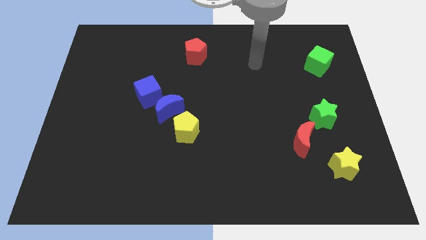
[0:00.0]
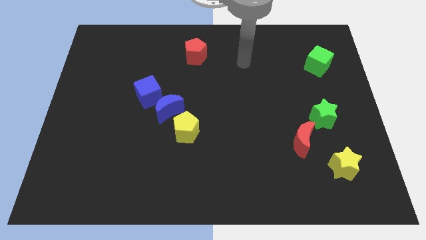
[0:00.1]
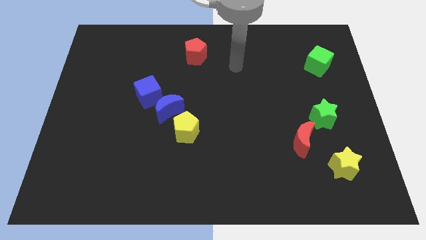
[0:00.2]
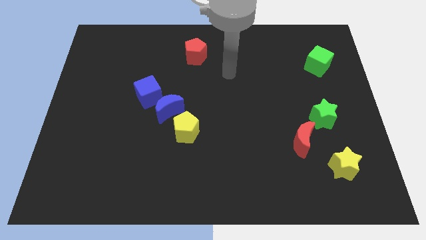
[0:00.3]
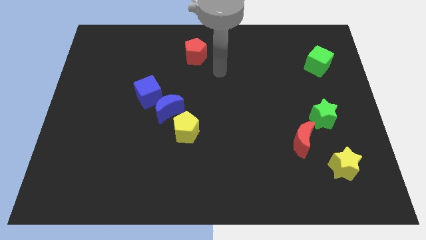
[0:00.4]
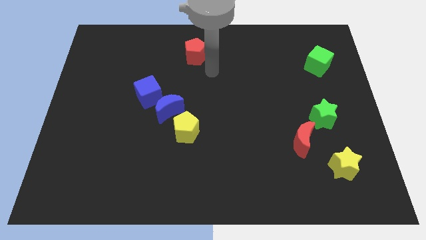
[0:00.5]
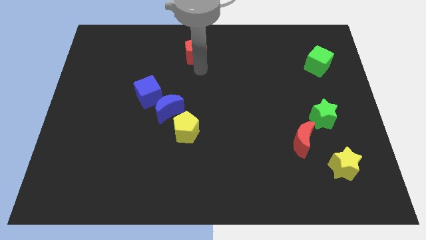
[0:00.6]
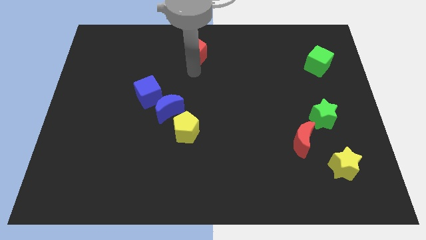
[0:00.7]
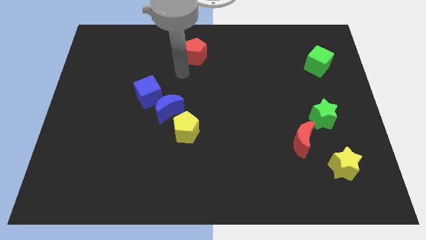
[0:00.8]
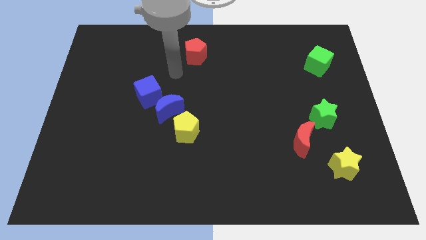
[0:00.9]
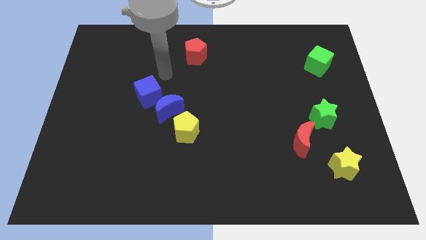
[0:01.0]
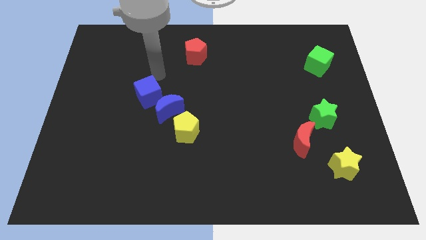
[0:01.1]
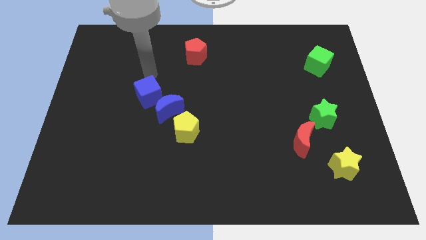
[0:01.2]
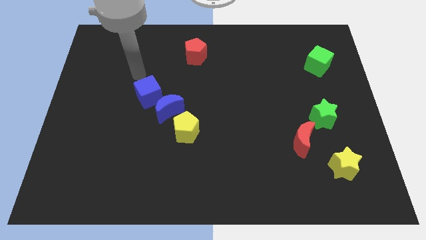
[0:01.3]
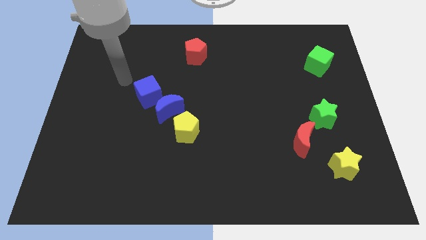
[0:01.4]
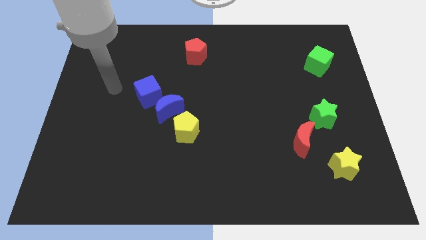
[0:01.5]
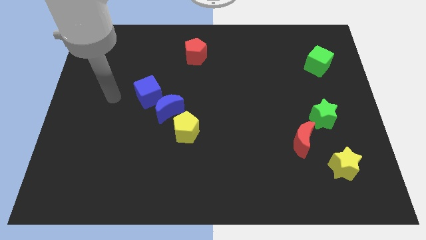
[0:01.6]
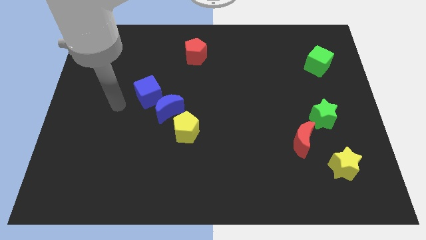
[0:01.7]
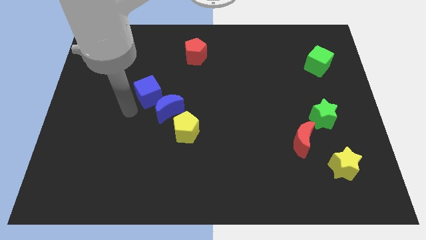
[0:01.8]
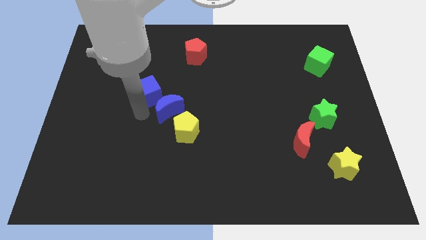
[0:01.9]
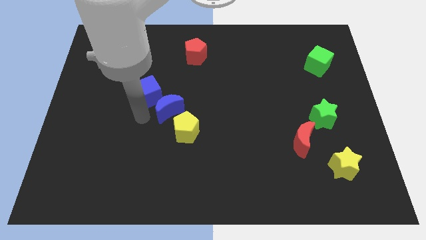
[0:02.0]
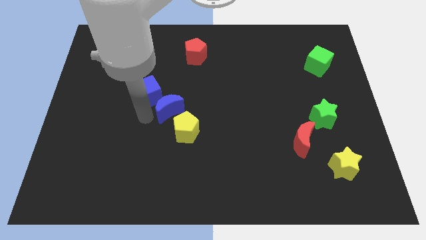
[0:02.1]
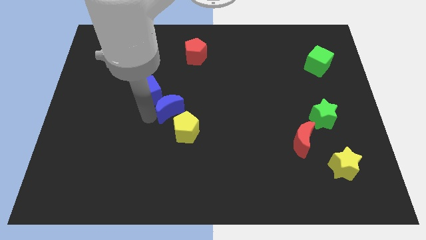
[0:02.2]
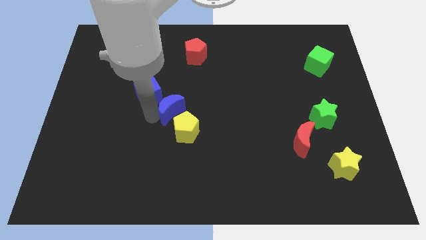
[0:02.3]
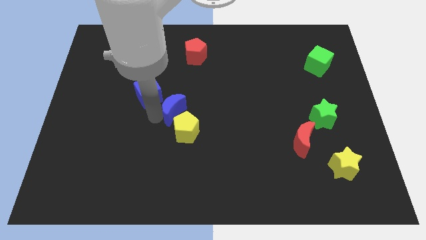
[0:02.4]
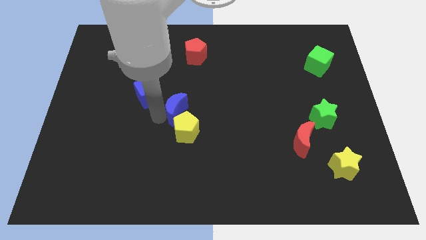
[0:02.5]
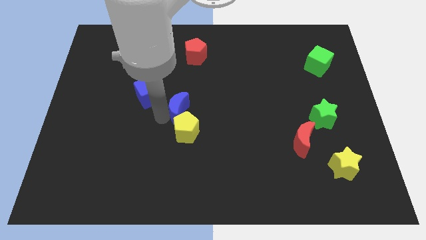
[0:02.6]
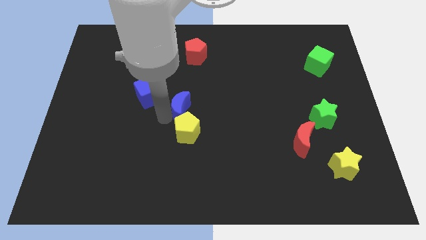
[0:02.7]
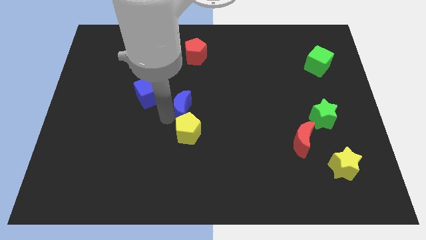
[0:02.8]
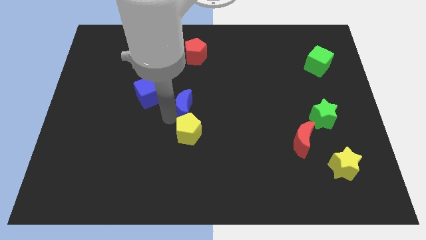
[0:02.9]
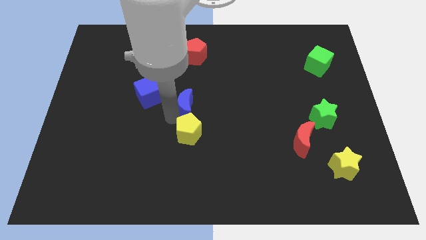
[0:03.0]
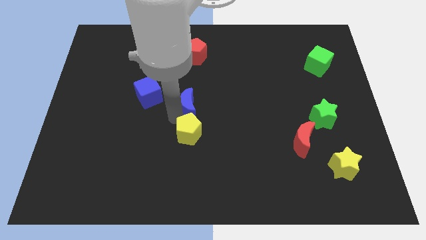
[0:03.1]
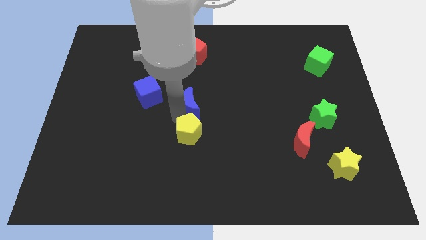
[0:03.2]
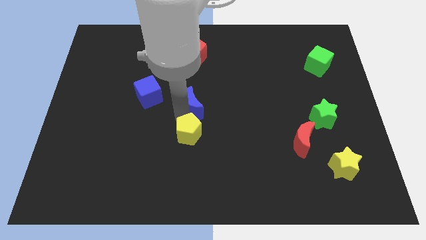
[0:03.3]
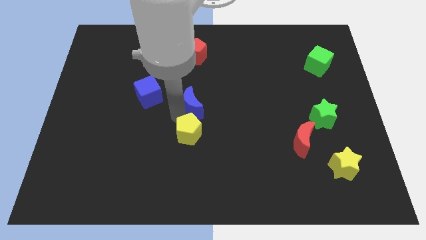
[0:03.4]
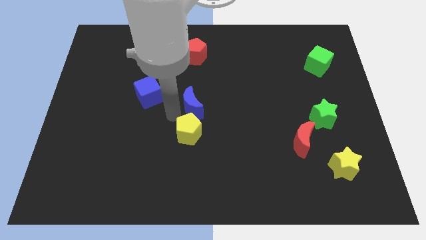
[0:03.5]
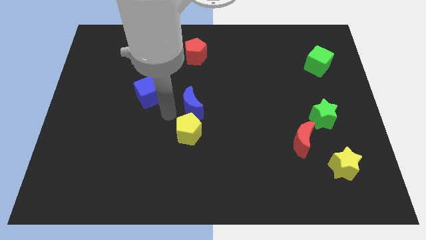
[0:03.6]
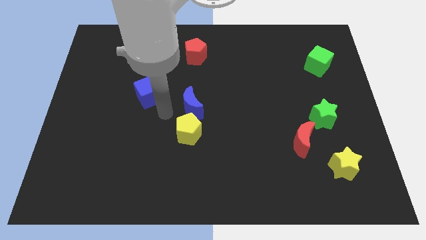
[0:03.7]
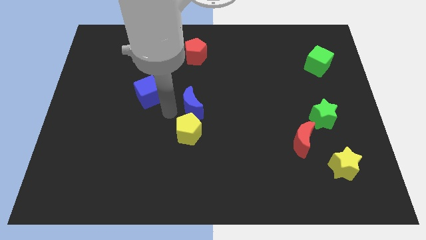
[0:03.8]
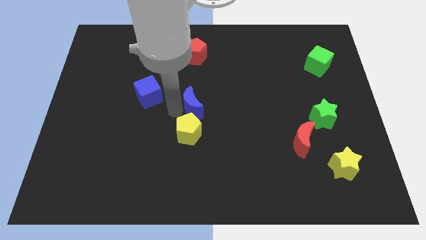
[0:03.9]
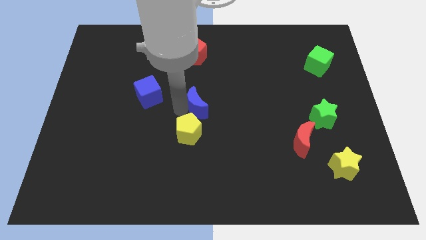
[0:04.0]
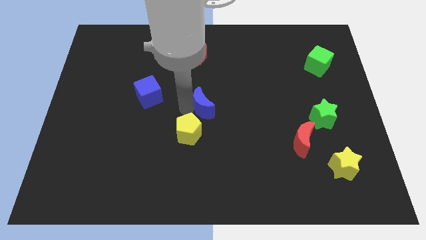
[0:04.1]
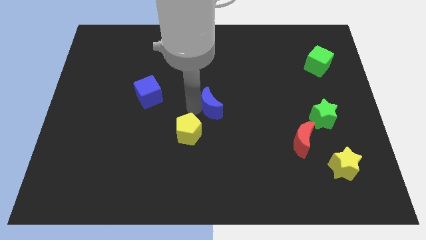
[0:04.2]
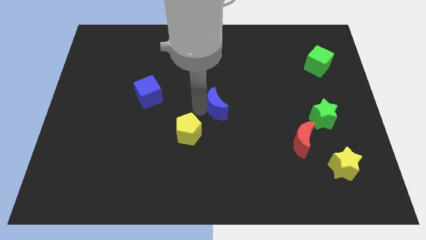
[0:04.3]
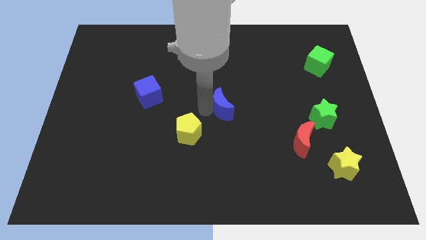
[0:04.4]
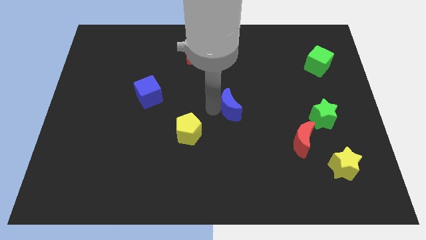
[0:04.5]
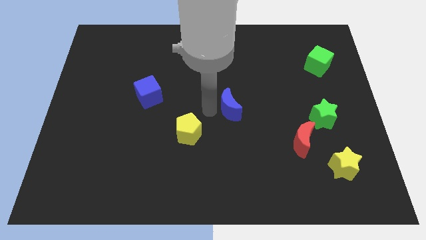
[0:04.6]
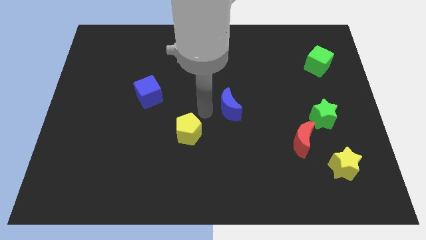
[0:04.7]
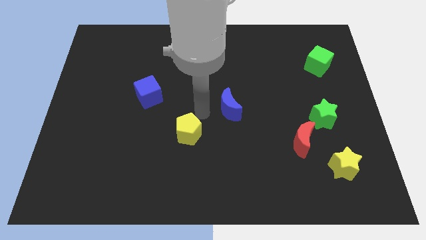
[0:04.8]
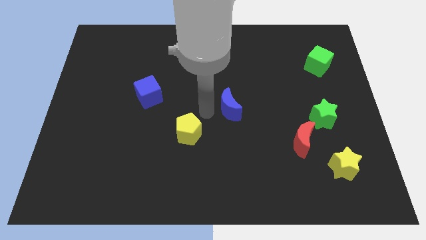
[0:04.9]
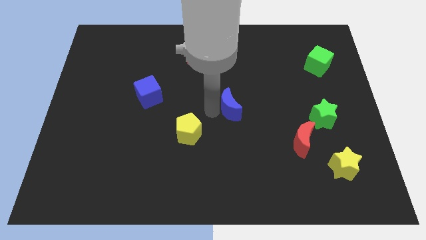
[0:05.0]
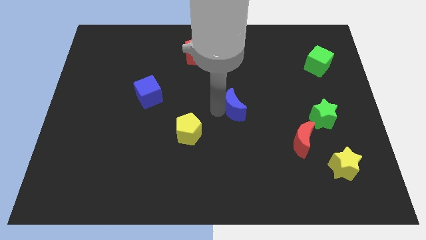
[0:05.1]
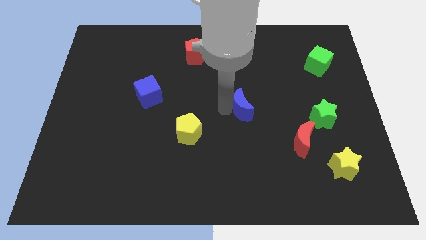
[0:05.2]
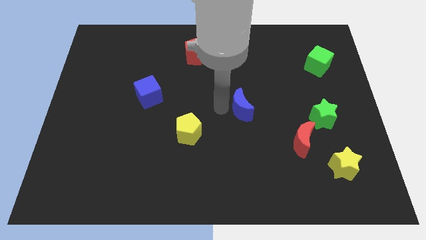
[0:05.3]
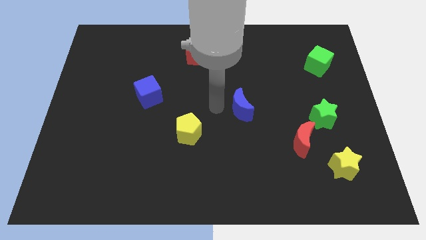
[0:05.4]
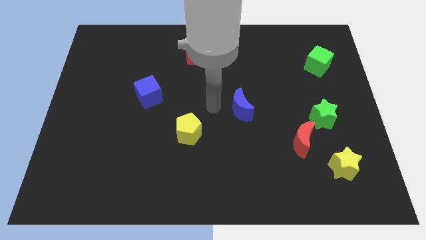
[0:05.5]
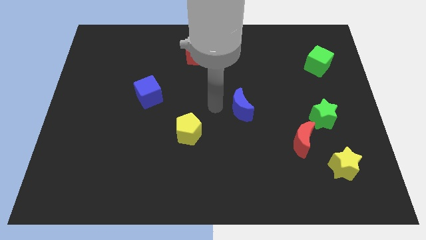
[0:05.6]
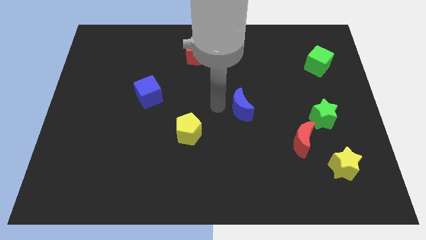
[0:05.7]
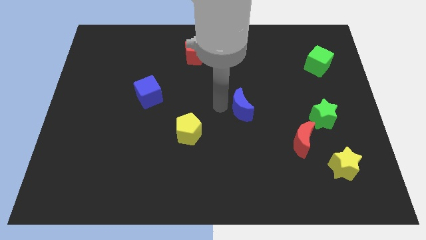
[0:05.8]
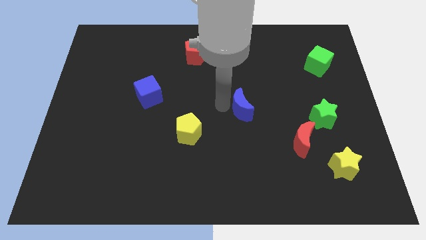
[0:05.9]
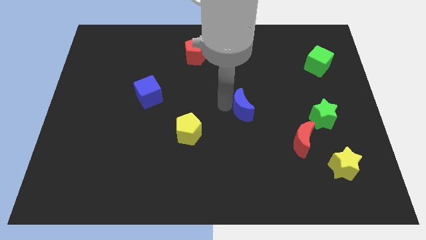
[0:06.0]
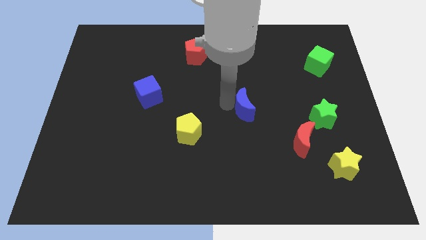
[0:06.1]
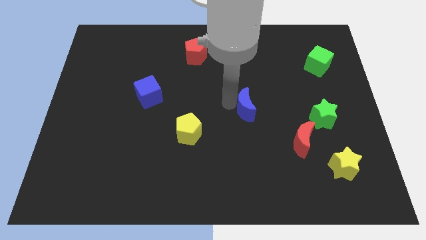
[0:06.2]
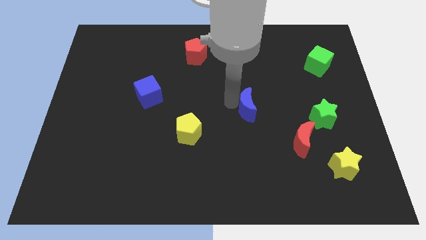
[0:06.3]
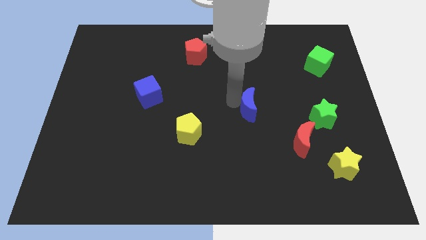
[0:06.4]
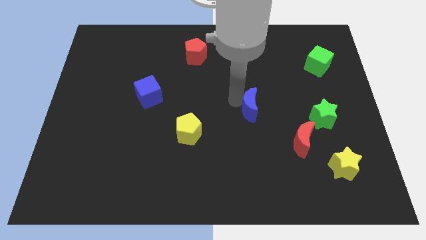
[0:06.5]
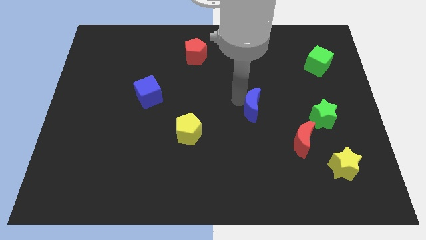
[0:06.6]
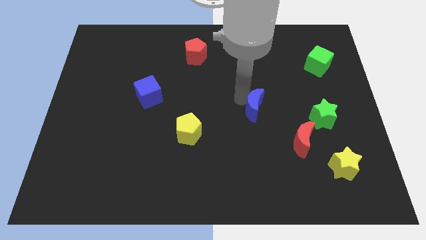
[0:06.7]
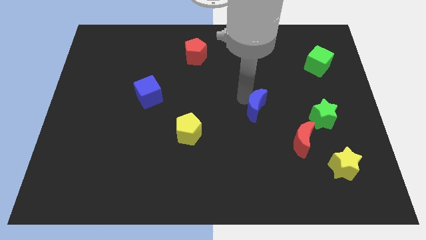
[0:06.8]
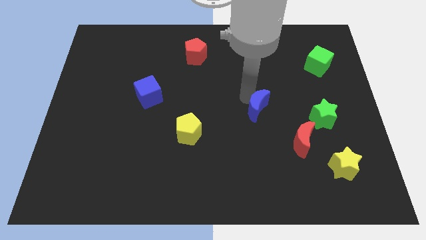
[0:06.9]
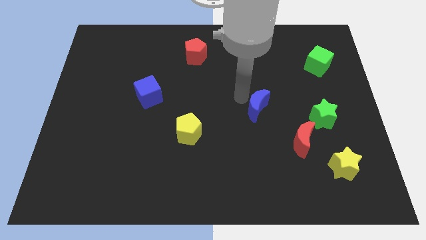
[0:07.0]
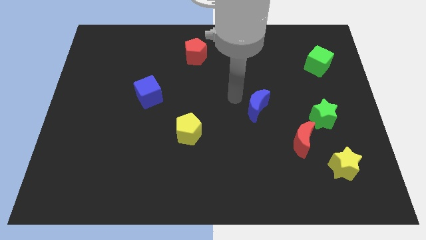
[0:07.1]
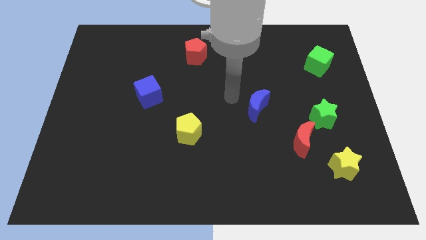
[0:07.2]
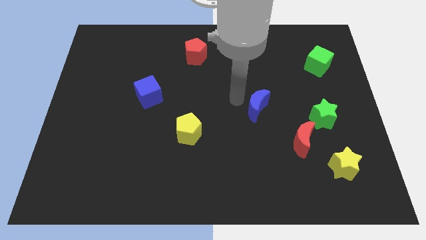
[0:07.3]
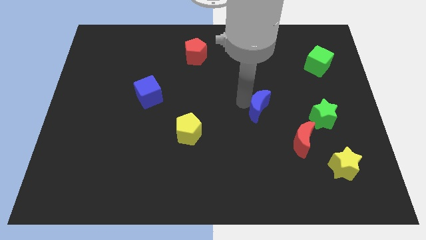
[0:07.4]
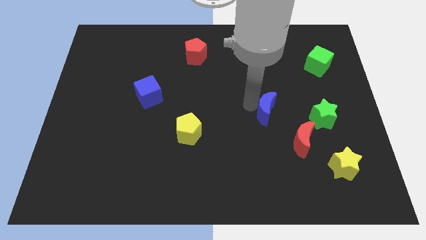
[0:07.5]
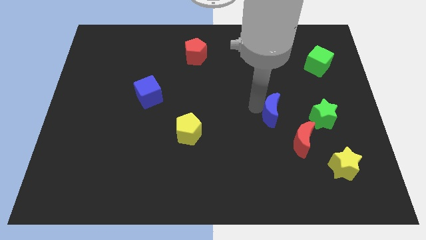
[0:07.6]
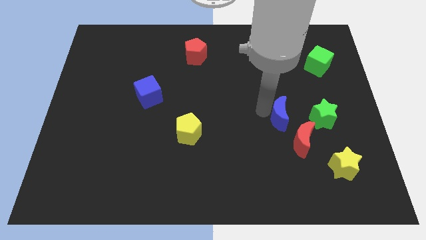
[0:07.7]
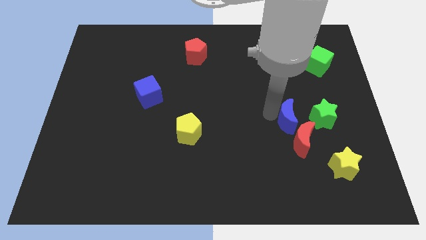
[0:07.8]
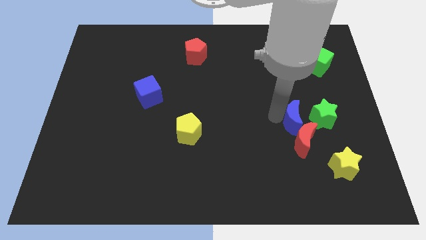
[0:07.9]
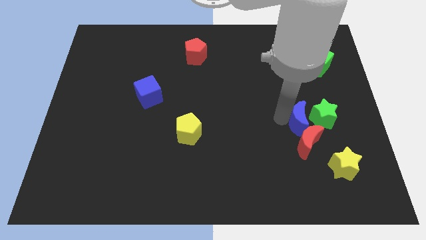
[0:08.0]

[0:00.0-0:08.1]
put the blue moon to the green star
